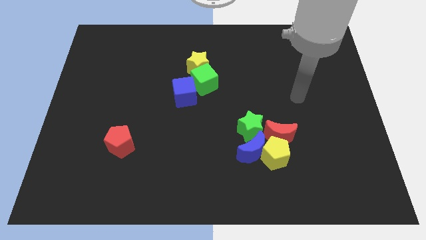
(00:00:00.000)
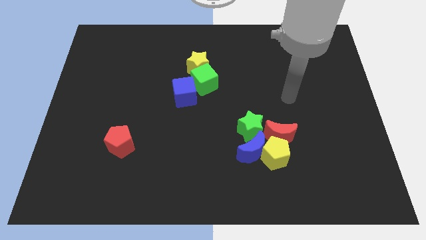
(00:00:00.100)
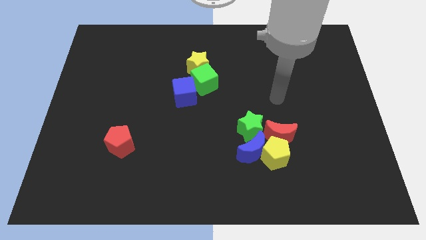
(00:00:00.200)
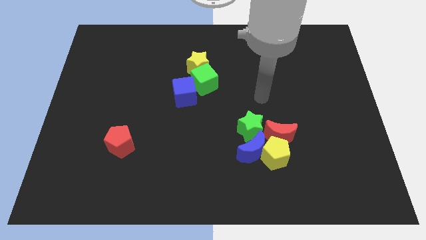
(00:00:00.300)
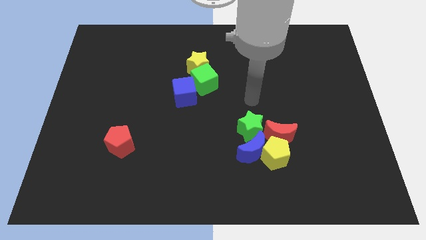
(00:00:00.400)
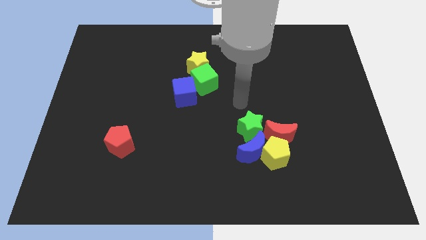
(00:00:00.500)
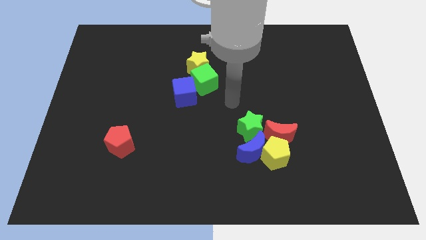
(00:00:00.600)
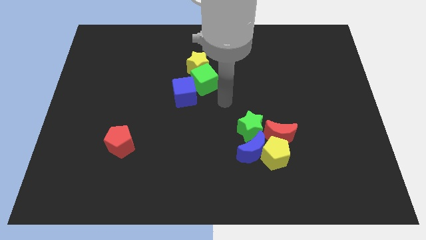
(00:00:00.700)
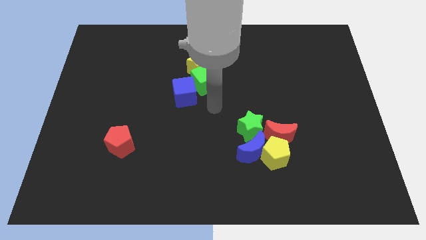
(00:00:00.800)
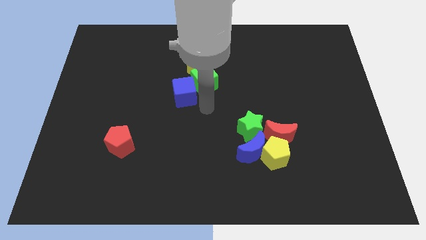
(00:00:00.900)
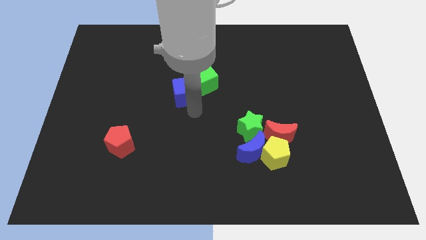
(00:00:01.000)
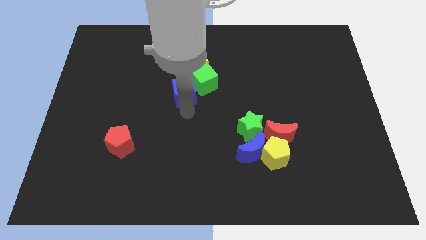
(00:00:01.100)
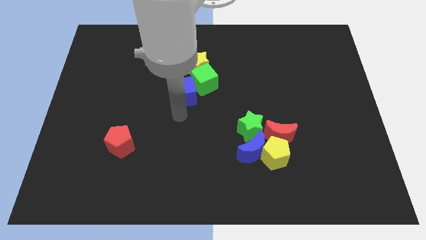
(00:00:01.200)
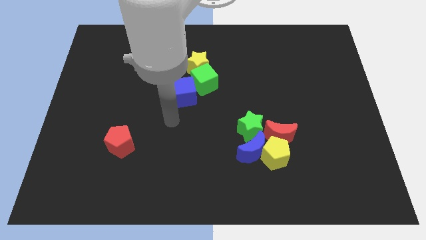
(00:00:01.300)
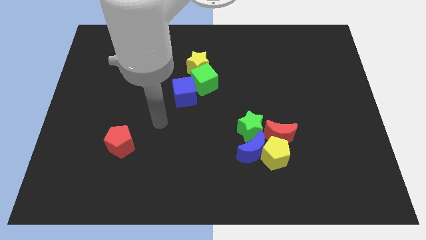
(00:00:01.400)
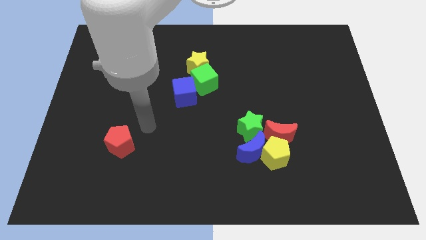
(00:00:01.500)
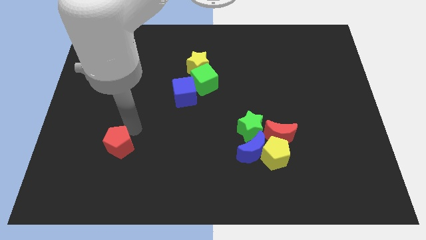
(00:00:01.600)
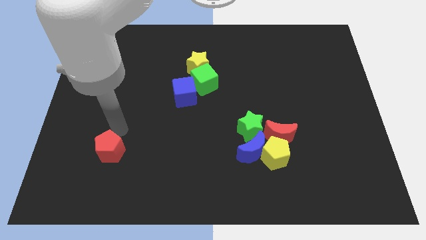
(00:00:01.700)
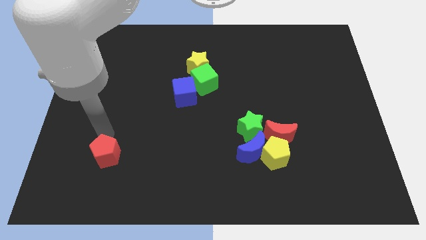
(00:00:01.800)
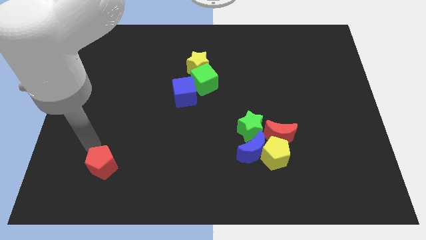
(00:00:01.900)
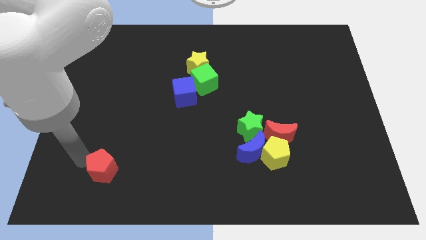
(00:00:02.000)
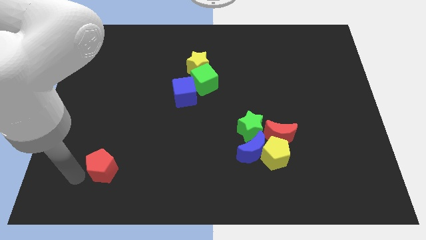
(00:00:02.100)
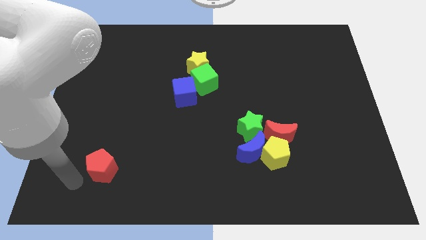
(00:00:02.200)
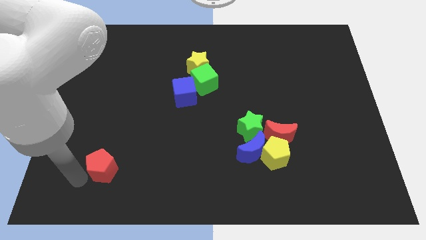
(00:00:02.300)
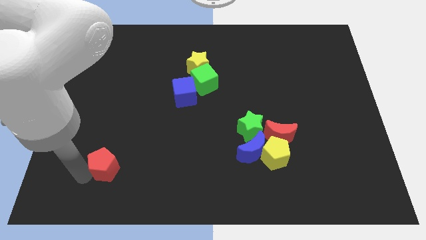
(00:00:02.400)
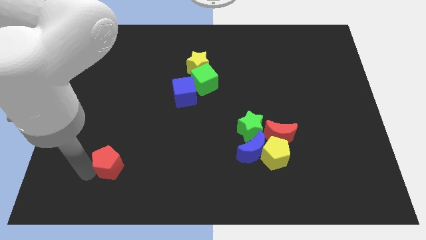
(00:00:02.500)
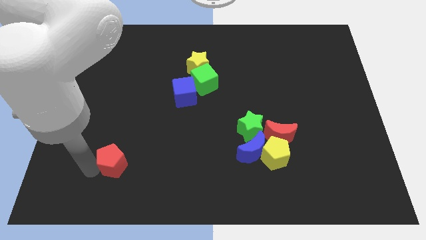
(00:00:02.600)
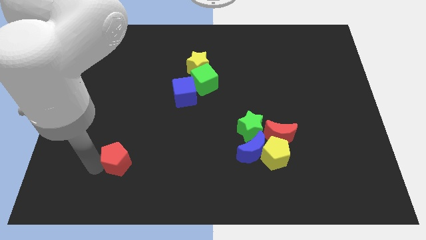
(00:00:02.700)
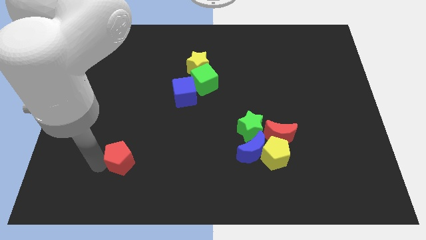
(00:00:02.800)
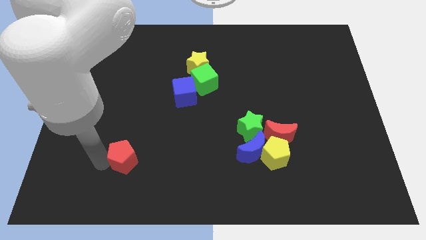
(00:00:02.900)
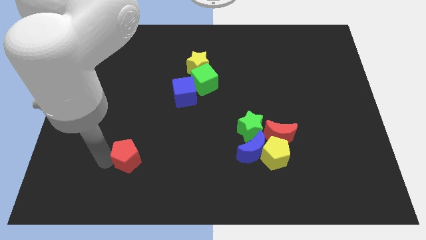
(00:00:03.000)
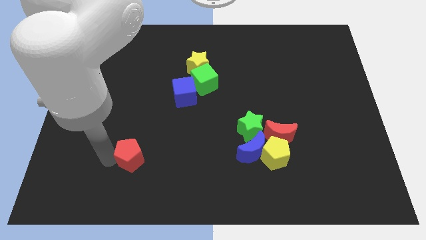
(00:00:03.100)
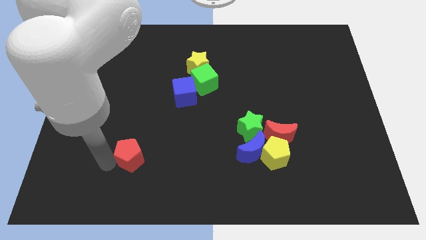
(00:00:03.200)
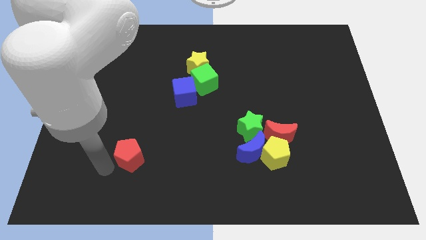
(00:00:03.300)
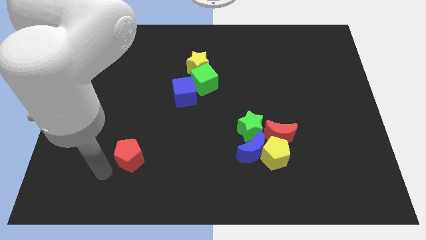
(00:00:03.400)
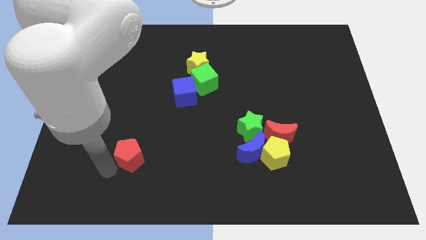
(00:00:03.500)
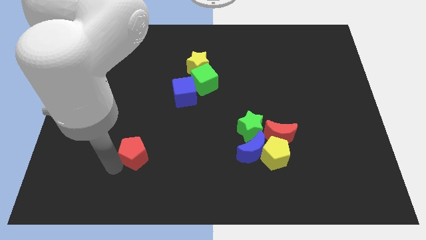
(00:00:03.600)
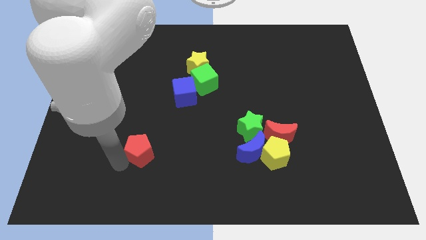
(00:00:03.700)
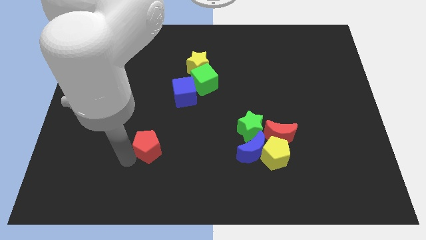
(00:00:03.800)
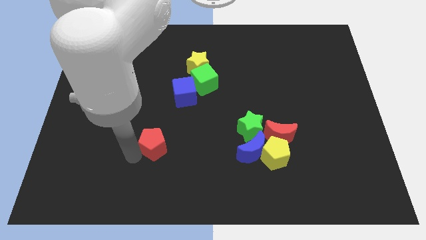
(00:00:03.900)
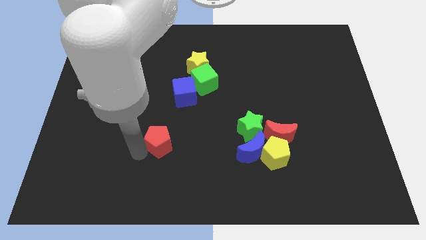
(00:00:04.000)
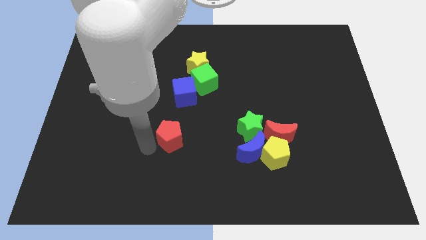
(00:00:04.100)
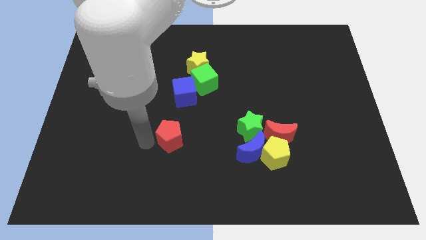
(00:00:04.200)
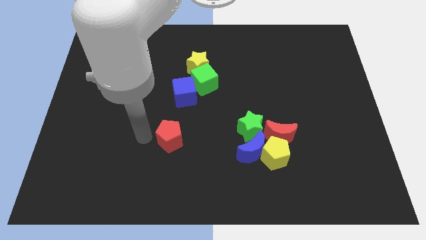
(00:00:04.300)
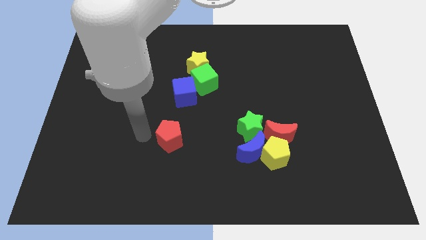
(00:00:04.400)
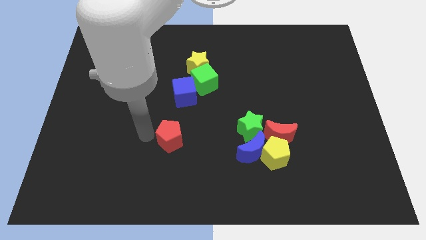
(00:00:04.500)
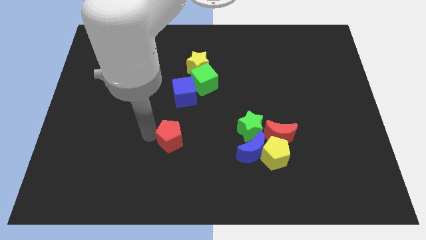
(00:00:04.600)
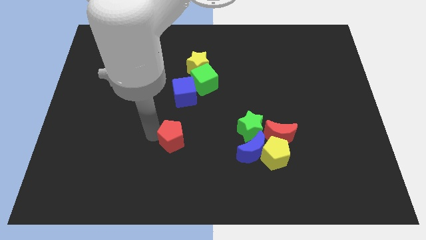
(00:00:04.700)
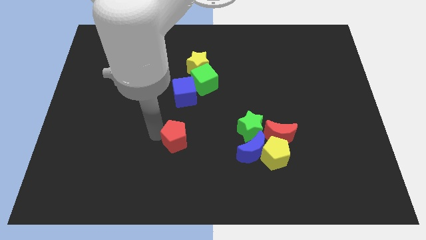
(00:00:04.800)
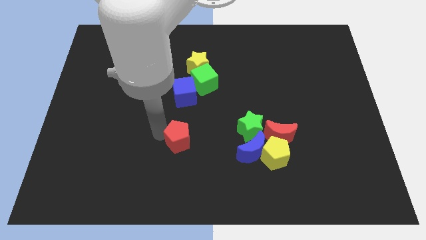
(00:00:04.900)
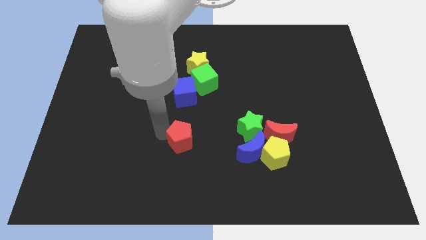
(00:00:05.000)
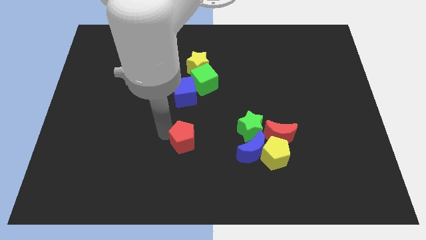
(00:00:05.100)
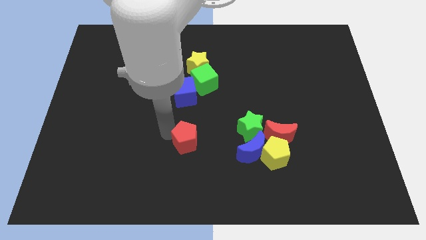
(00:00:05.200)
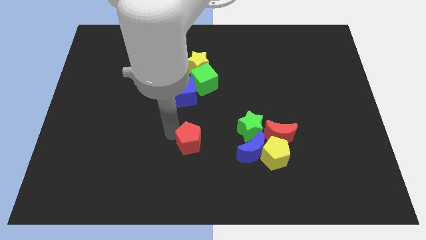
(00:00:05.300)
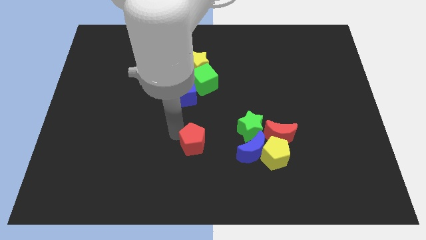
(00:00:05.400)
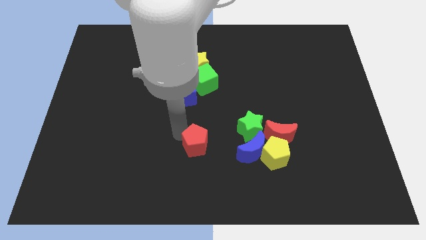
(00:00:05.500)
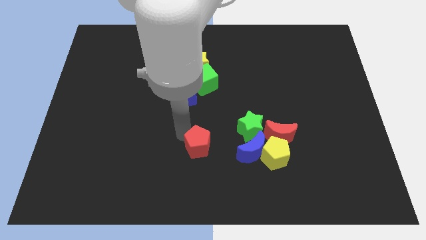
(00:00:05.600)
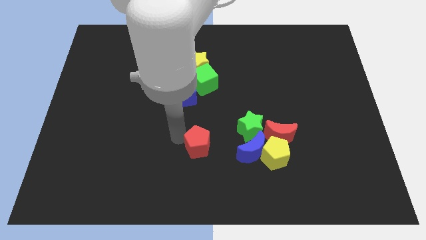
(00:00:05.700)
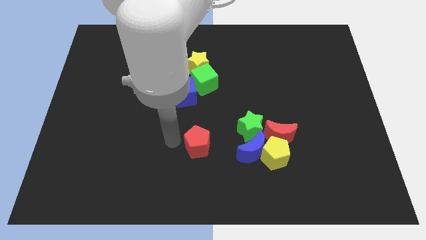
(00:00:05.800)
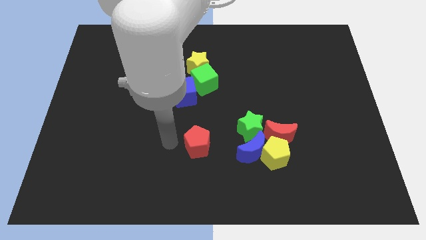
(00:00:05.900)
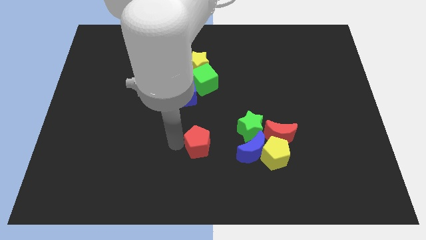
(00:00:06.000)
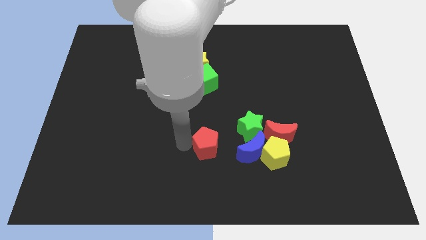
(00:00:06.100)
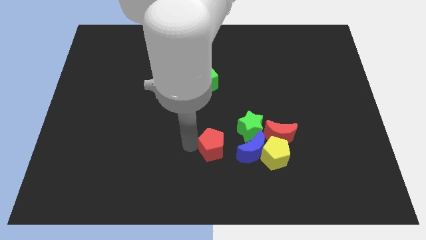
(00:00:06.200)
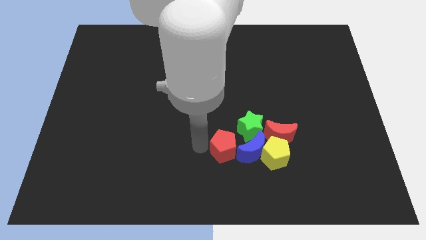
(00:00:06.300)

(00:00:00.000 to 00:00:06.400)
push the red pentagon towards the blue moon

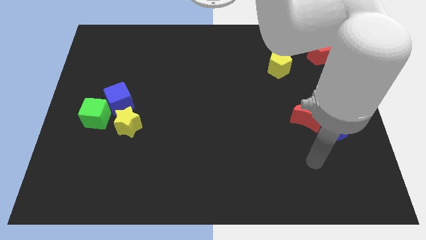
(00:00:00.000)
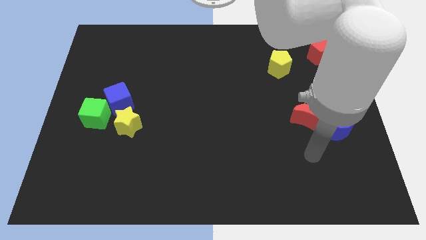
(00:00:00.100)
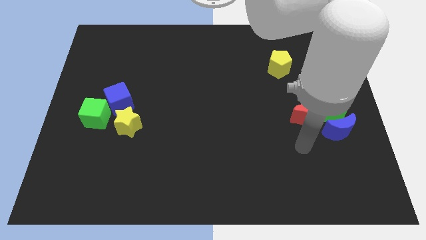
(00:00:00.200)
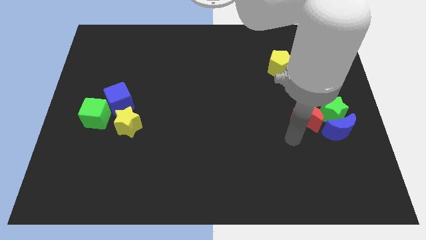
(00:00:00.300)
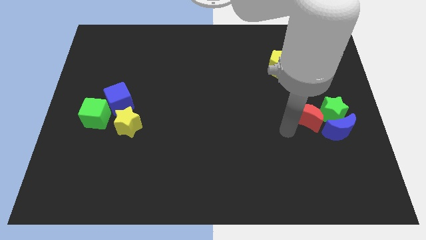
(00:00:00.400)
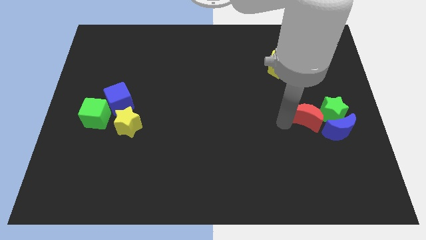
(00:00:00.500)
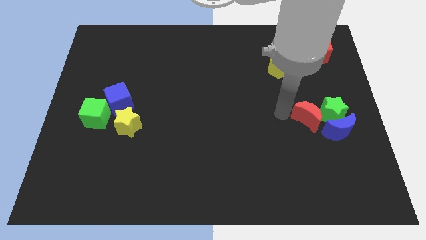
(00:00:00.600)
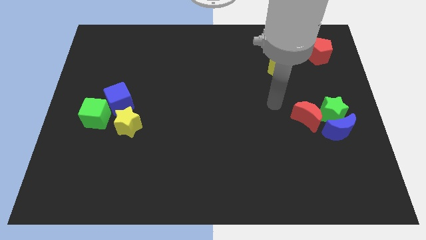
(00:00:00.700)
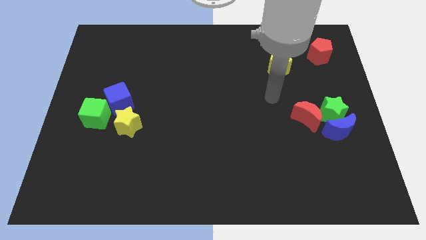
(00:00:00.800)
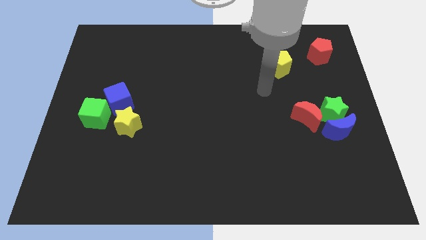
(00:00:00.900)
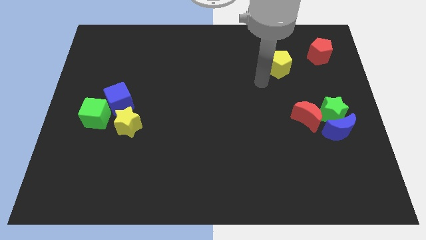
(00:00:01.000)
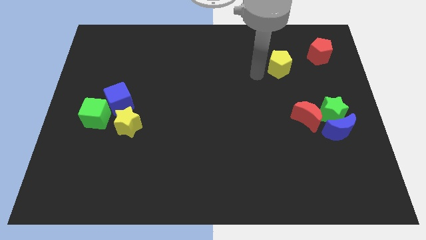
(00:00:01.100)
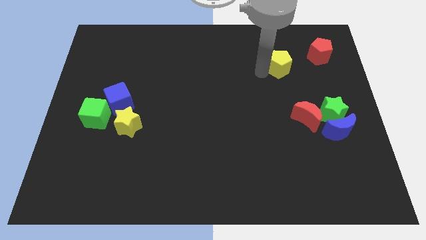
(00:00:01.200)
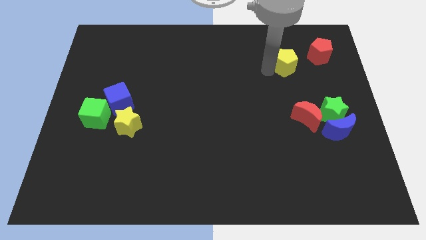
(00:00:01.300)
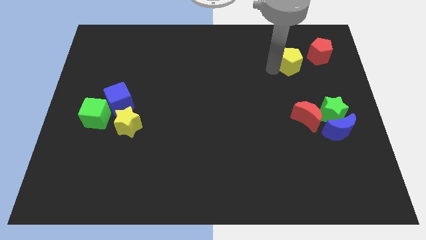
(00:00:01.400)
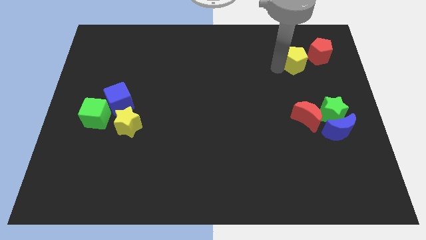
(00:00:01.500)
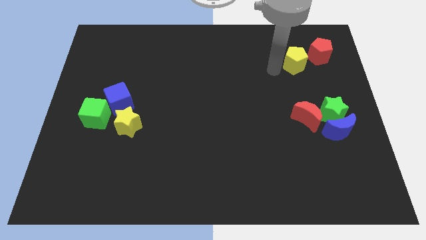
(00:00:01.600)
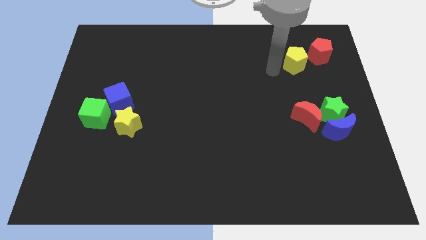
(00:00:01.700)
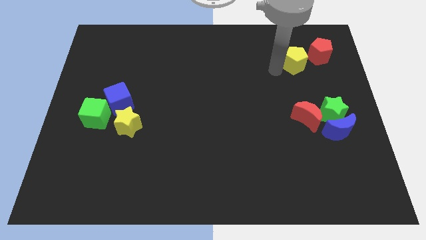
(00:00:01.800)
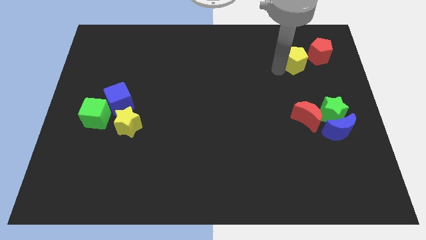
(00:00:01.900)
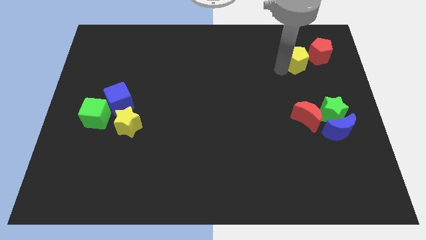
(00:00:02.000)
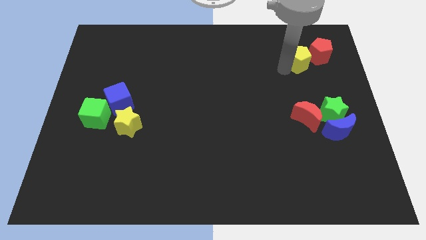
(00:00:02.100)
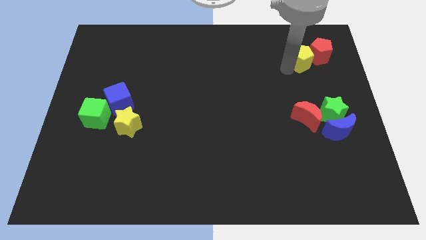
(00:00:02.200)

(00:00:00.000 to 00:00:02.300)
push the yellow pentagon close to the red pentagon
